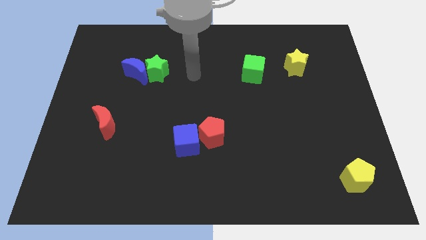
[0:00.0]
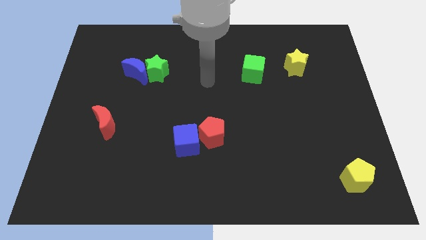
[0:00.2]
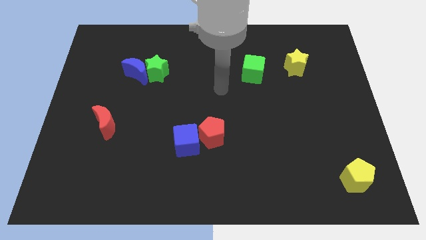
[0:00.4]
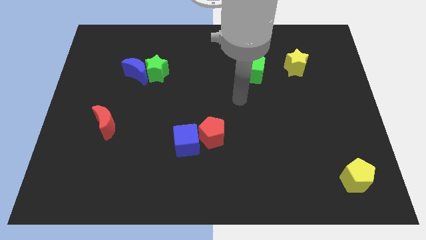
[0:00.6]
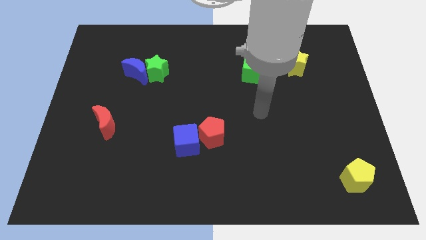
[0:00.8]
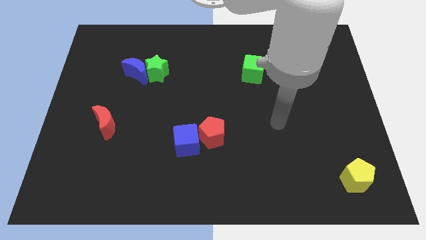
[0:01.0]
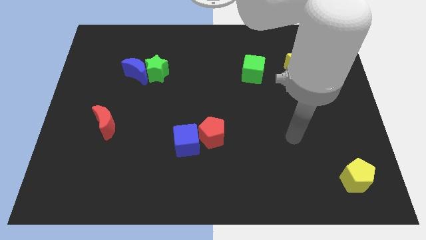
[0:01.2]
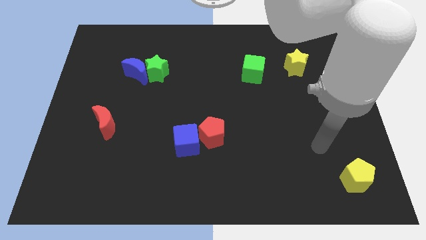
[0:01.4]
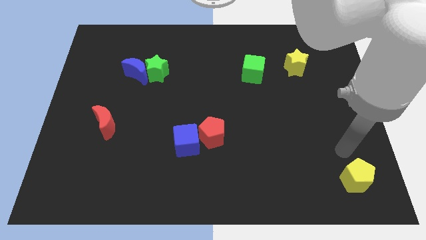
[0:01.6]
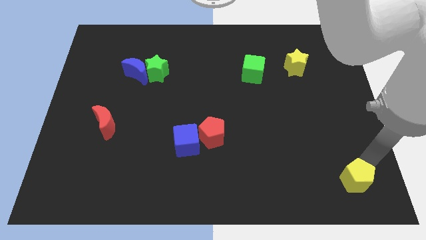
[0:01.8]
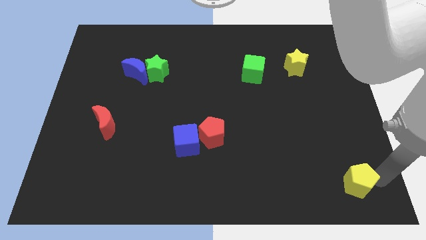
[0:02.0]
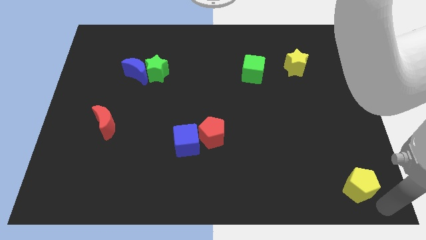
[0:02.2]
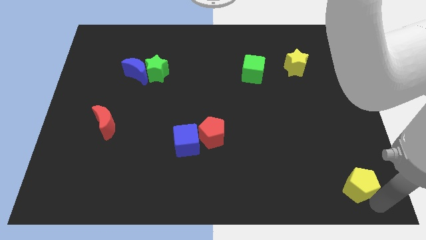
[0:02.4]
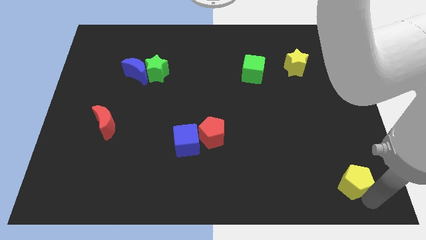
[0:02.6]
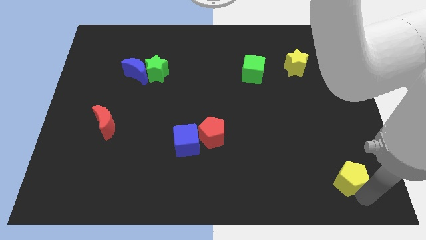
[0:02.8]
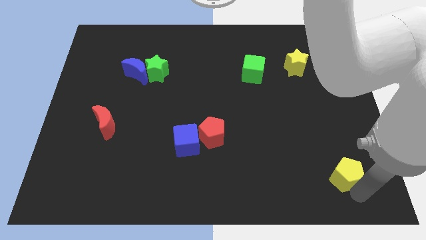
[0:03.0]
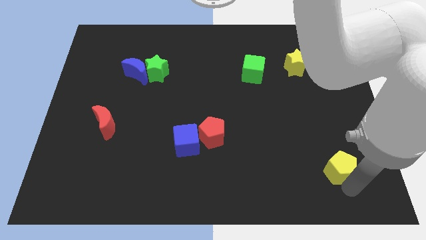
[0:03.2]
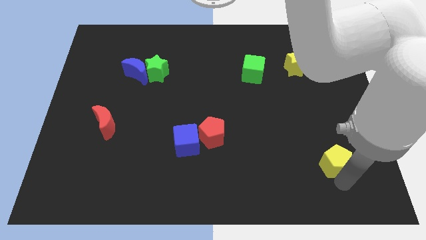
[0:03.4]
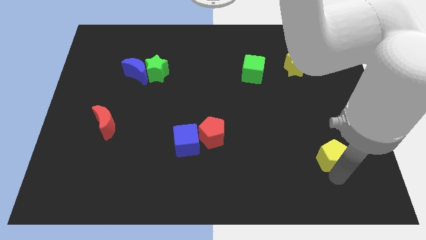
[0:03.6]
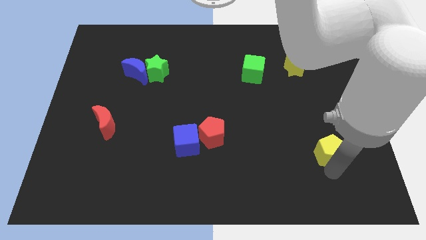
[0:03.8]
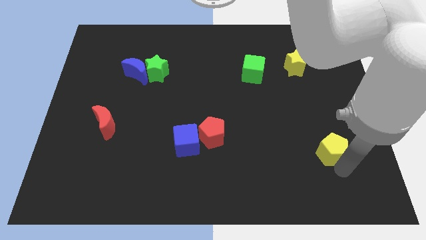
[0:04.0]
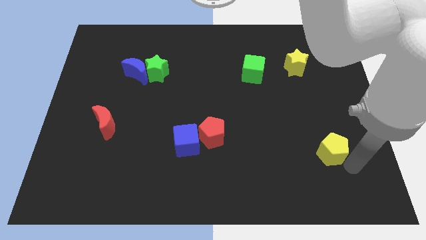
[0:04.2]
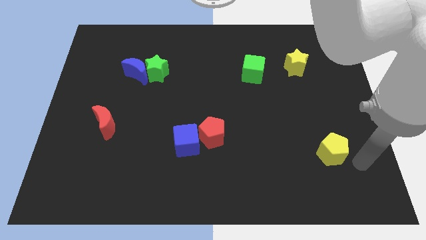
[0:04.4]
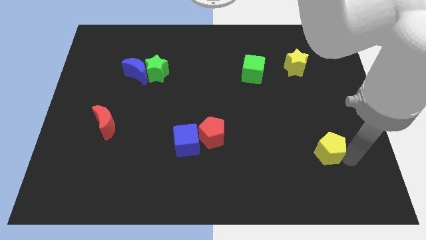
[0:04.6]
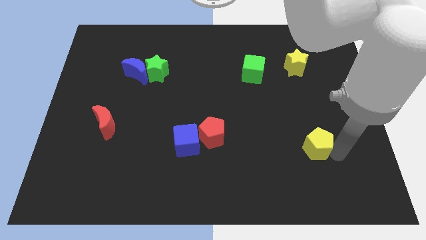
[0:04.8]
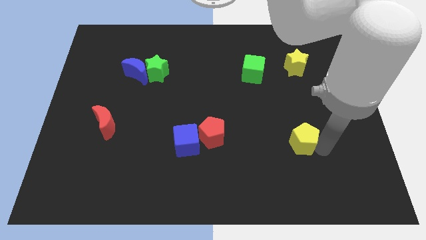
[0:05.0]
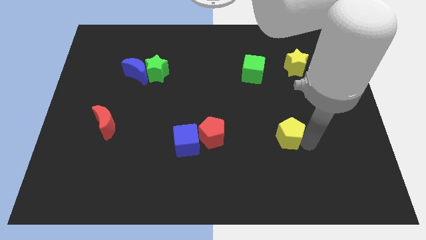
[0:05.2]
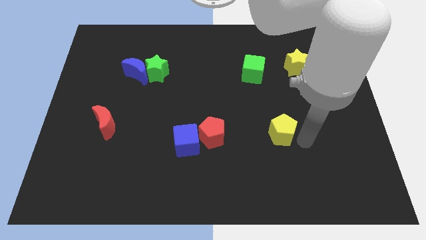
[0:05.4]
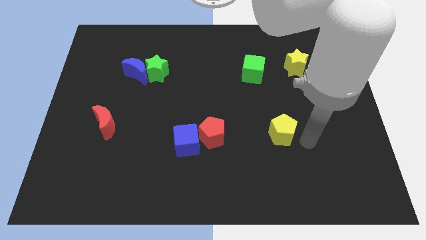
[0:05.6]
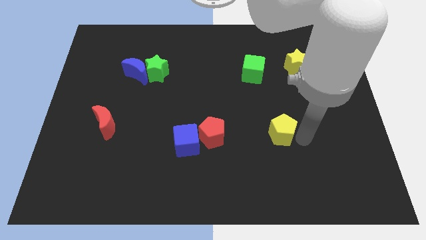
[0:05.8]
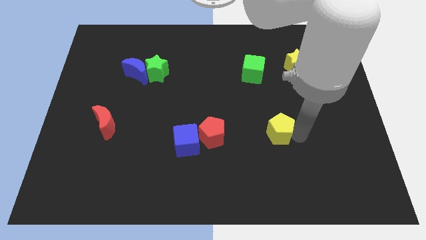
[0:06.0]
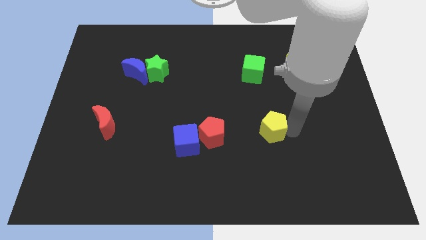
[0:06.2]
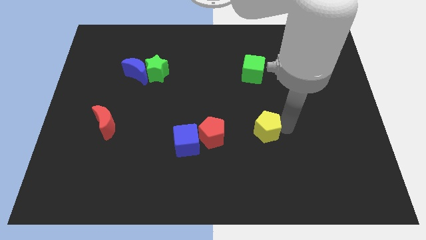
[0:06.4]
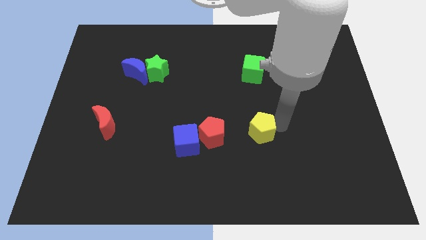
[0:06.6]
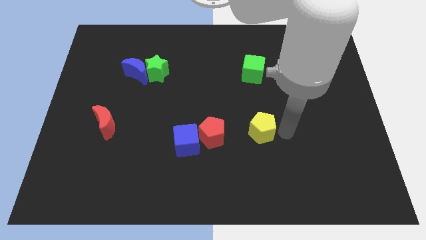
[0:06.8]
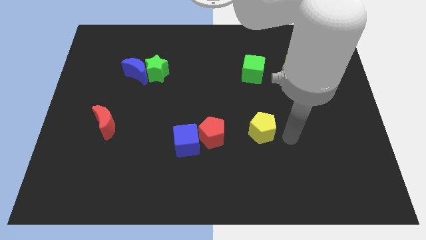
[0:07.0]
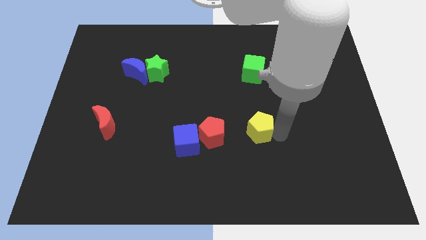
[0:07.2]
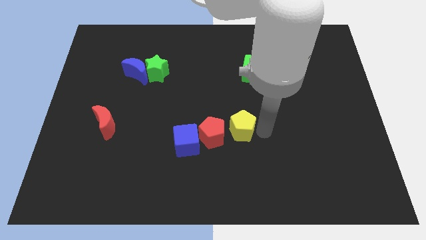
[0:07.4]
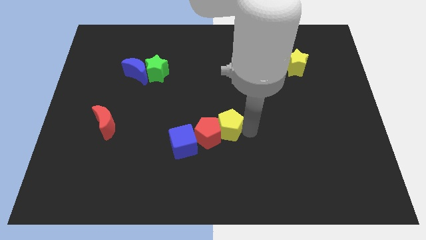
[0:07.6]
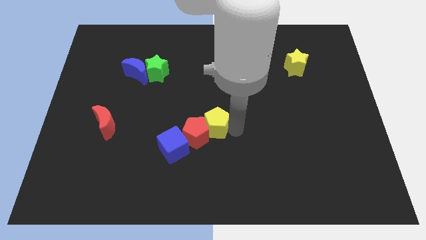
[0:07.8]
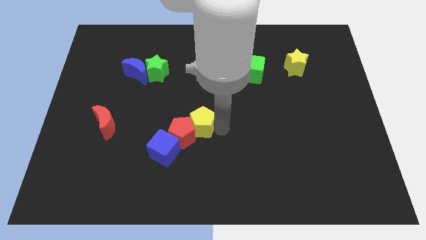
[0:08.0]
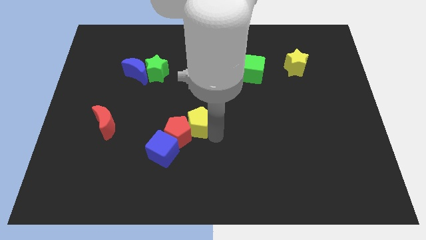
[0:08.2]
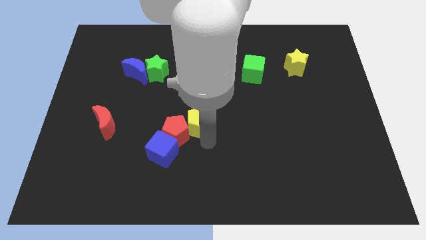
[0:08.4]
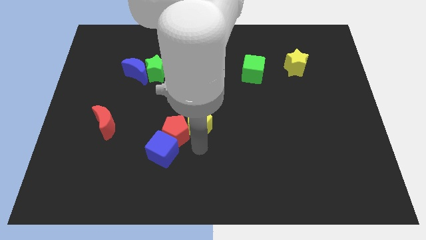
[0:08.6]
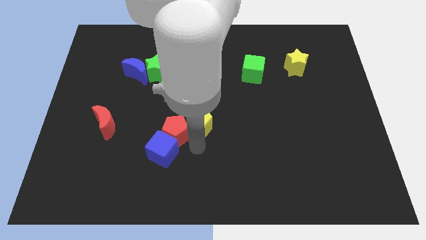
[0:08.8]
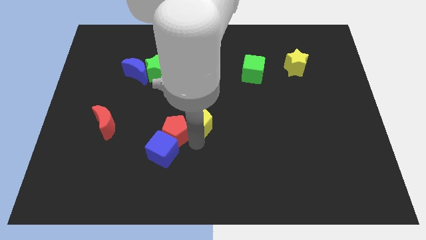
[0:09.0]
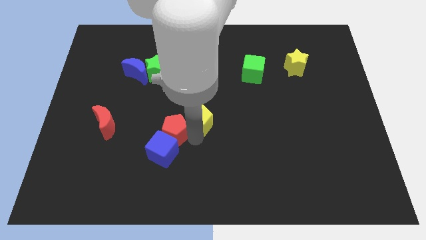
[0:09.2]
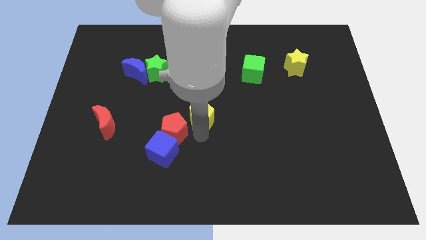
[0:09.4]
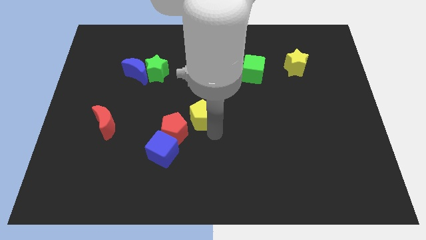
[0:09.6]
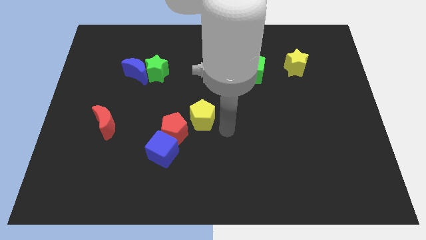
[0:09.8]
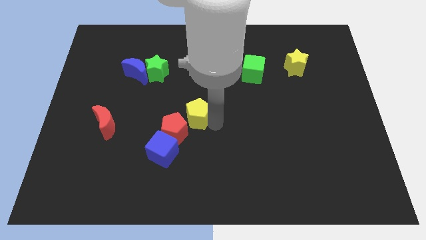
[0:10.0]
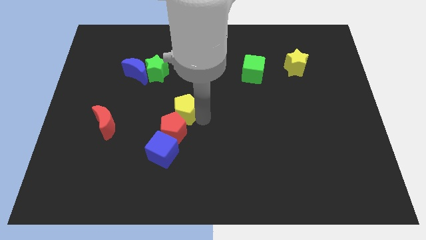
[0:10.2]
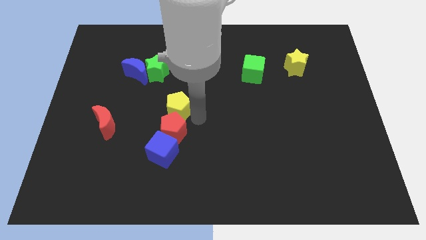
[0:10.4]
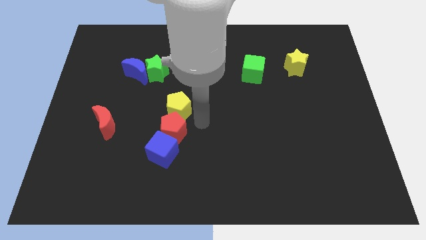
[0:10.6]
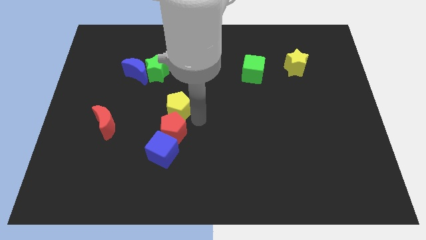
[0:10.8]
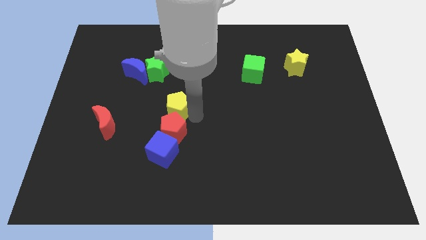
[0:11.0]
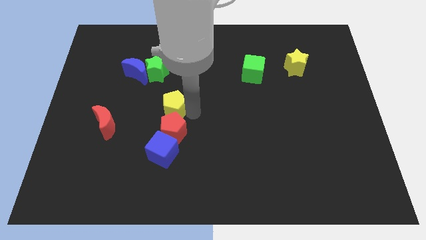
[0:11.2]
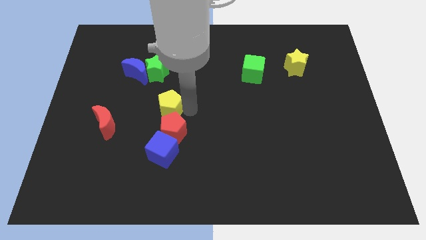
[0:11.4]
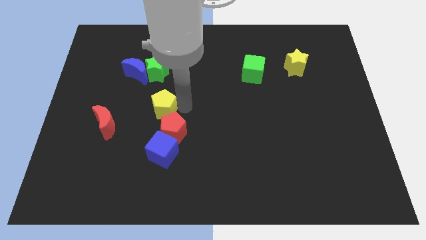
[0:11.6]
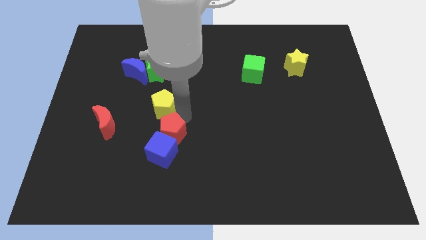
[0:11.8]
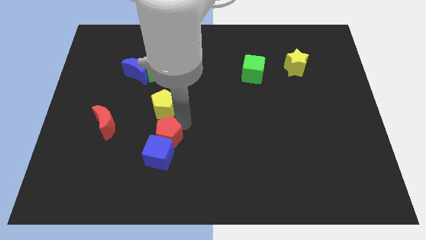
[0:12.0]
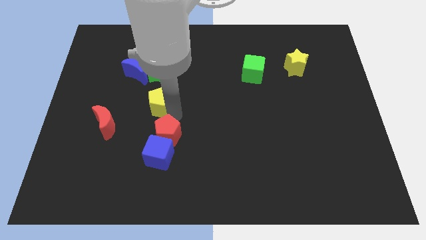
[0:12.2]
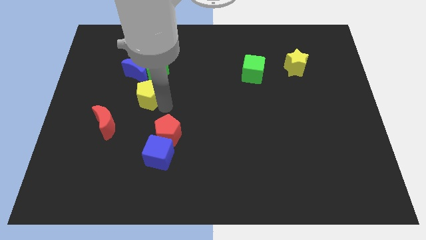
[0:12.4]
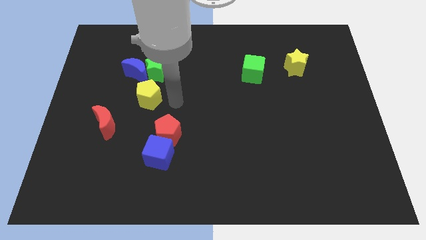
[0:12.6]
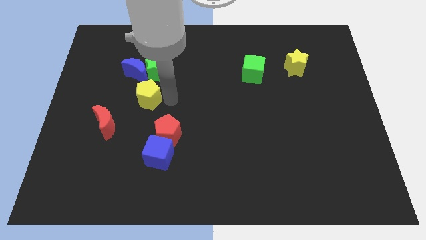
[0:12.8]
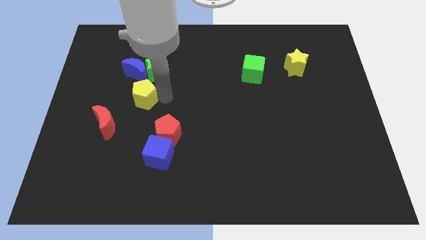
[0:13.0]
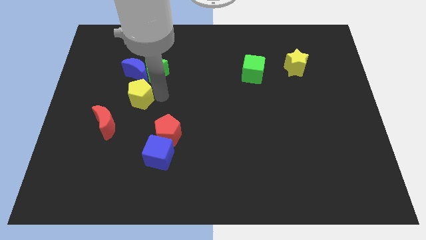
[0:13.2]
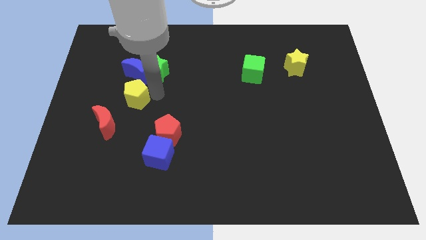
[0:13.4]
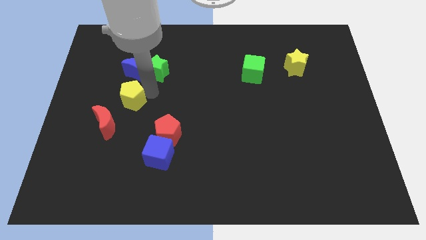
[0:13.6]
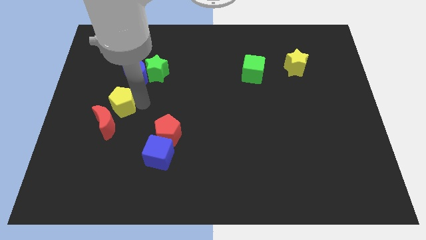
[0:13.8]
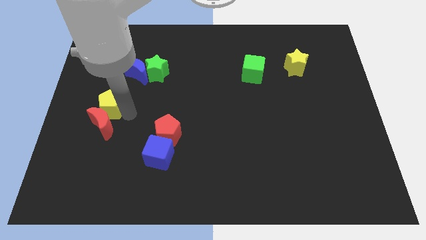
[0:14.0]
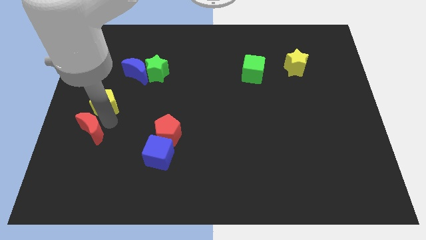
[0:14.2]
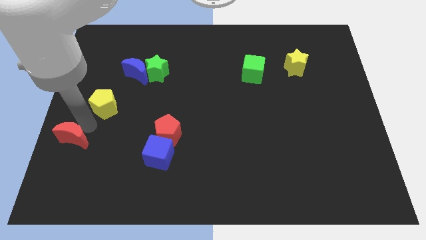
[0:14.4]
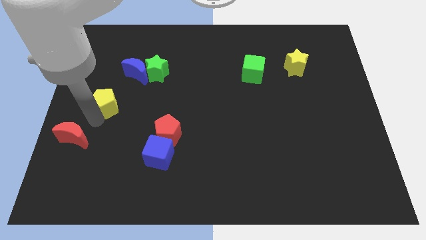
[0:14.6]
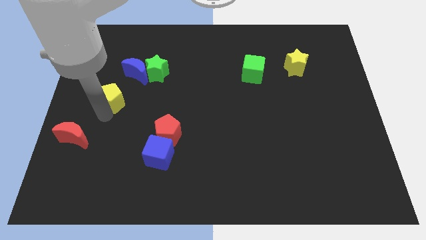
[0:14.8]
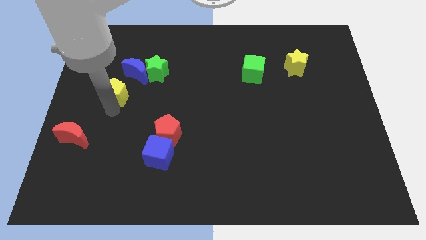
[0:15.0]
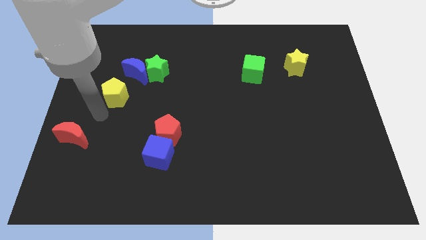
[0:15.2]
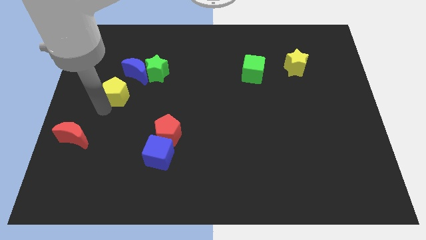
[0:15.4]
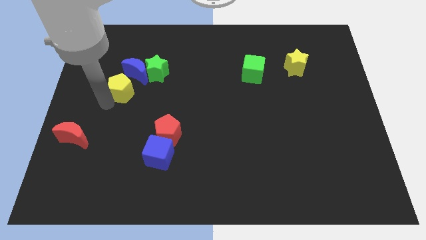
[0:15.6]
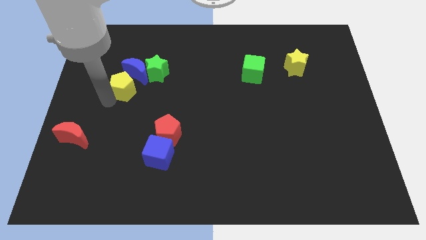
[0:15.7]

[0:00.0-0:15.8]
put the yellow pentagon next to the blue moon
